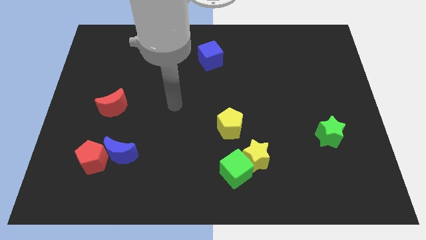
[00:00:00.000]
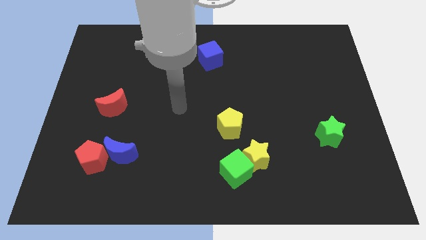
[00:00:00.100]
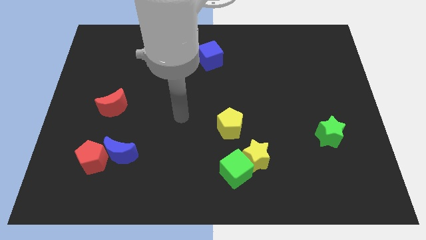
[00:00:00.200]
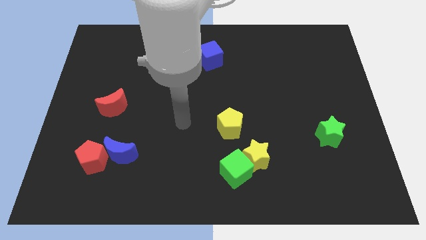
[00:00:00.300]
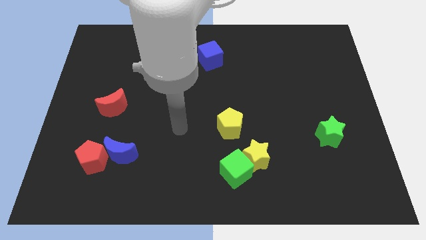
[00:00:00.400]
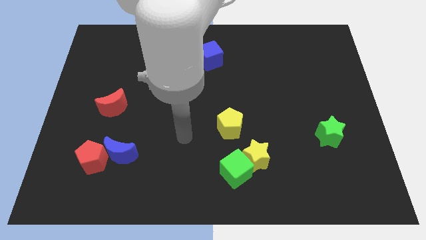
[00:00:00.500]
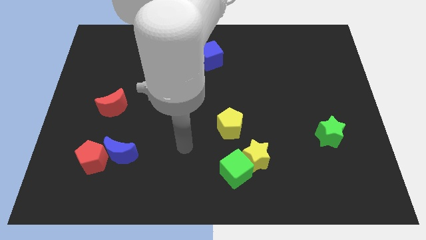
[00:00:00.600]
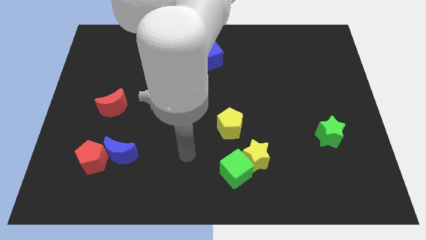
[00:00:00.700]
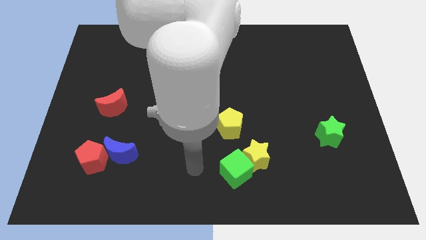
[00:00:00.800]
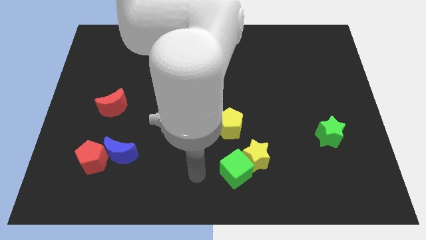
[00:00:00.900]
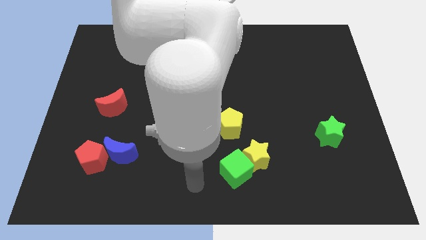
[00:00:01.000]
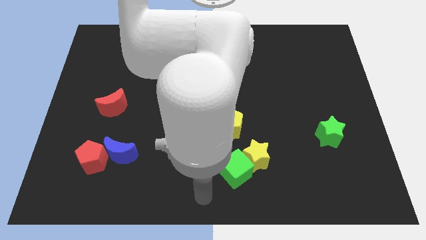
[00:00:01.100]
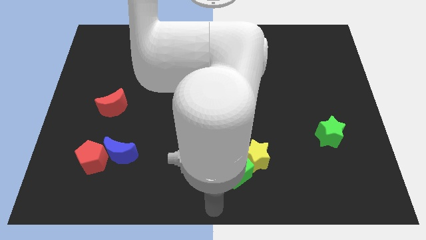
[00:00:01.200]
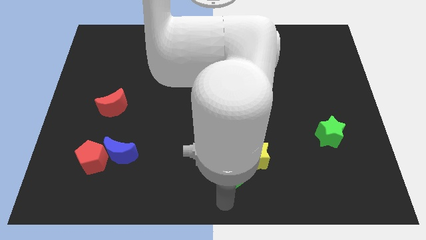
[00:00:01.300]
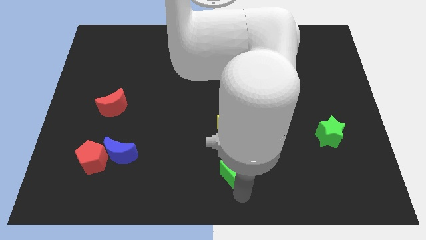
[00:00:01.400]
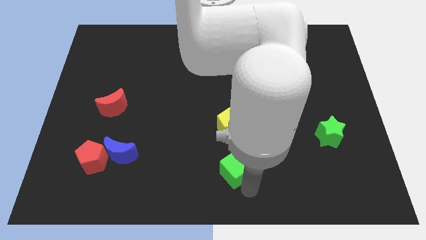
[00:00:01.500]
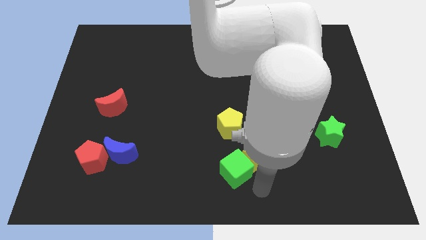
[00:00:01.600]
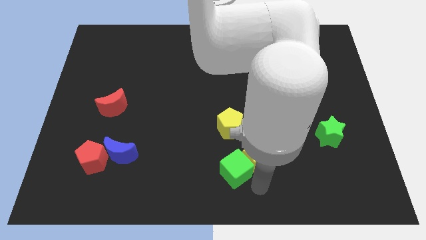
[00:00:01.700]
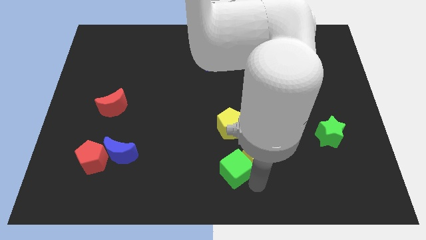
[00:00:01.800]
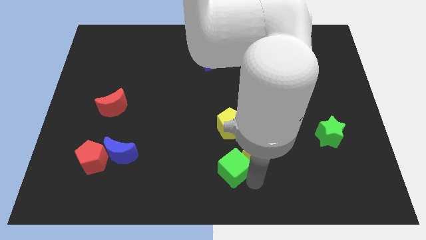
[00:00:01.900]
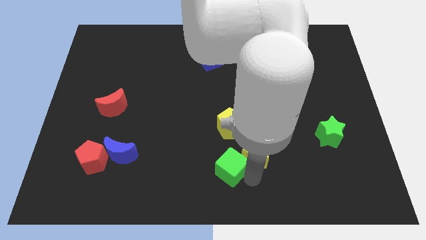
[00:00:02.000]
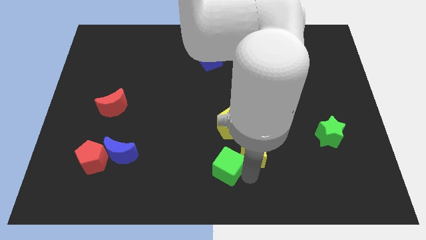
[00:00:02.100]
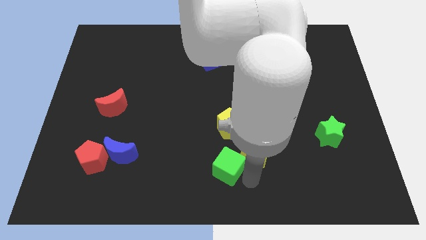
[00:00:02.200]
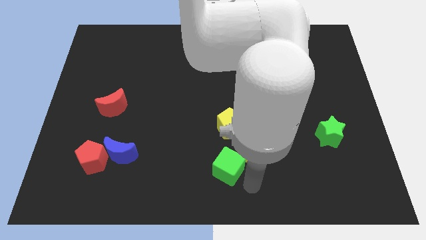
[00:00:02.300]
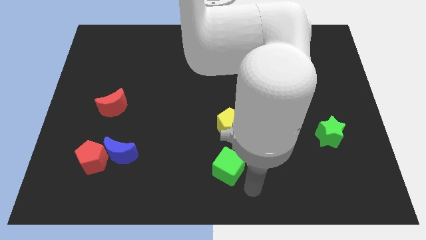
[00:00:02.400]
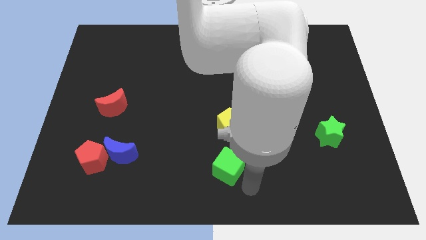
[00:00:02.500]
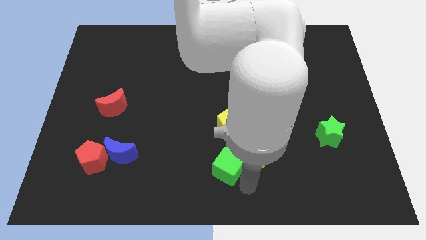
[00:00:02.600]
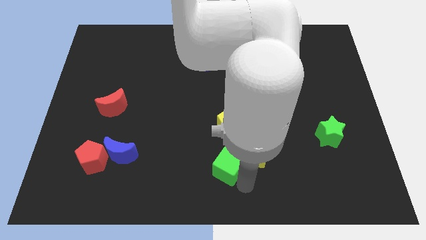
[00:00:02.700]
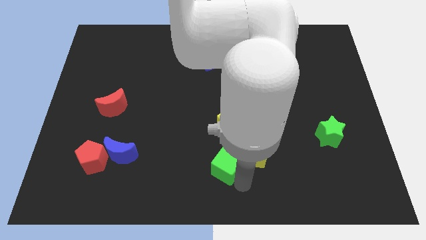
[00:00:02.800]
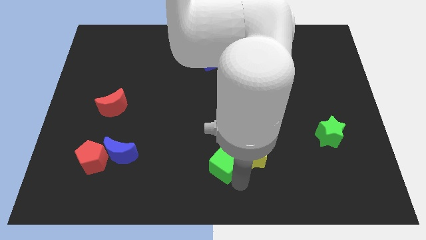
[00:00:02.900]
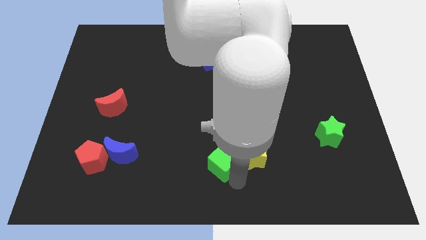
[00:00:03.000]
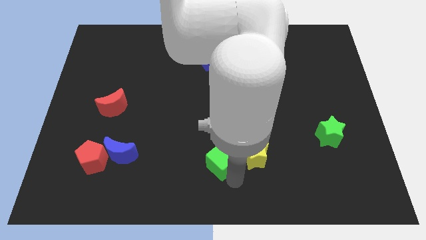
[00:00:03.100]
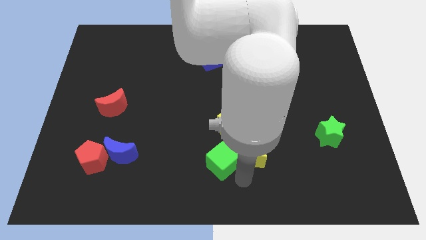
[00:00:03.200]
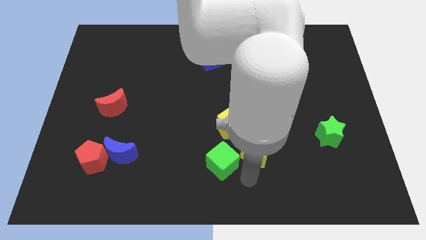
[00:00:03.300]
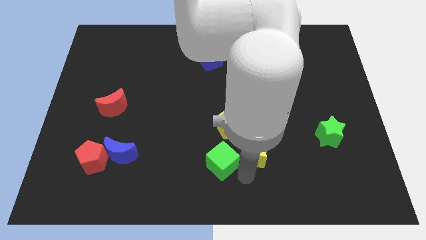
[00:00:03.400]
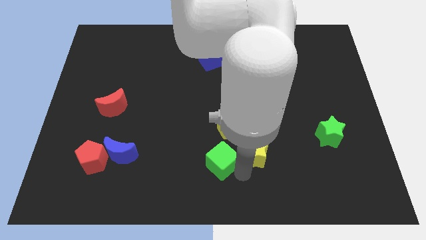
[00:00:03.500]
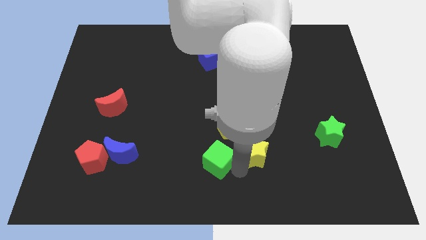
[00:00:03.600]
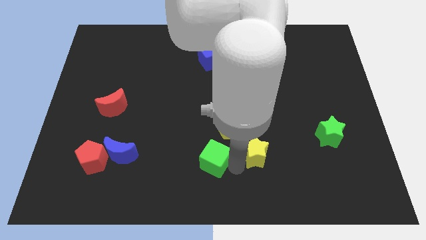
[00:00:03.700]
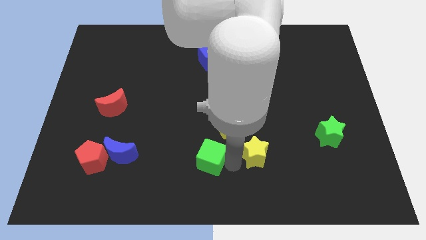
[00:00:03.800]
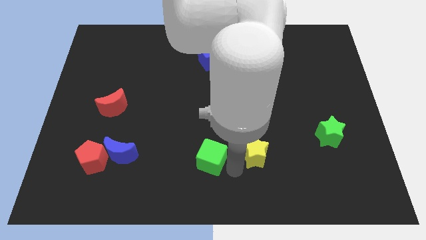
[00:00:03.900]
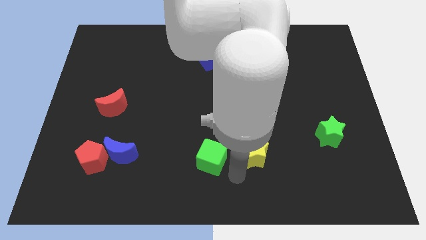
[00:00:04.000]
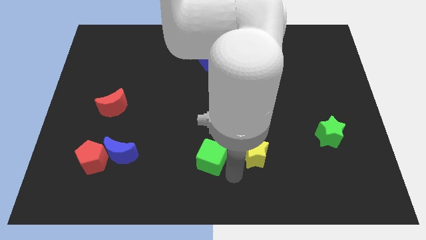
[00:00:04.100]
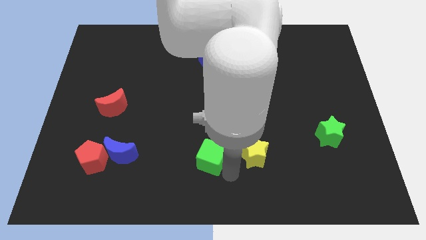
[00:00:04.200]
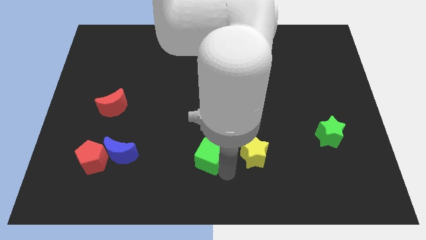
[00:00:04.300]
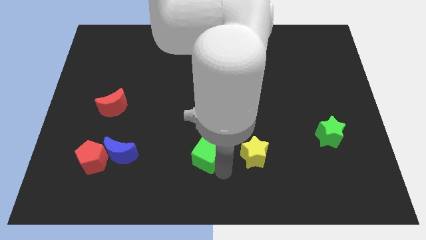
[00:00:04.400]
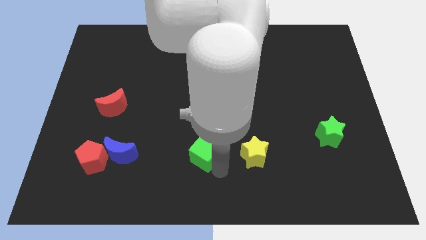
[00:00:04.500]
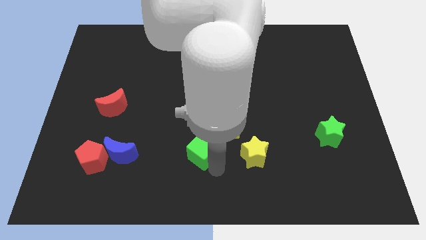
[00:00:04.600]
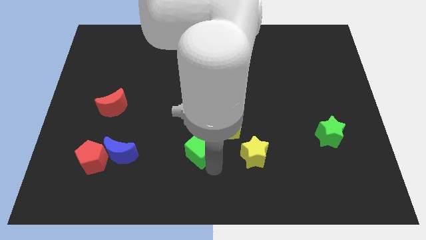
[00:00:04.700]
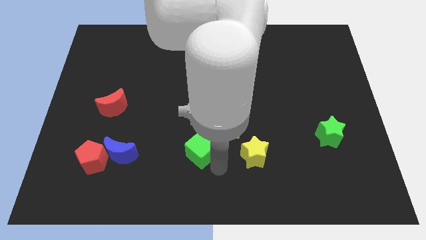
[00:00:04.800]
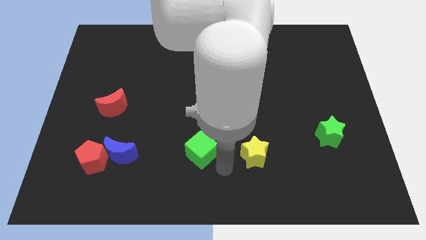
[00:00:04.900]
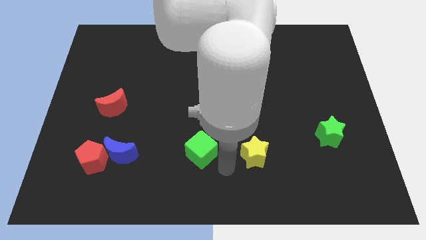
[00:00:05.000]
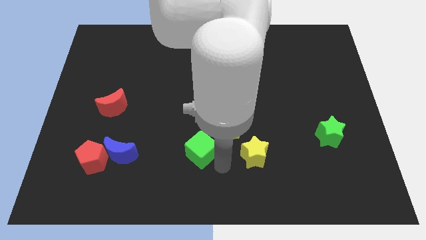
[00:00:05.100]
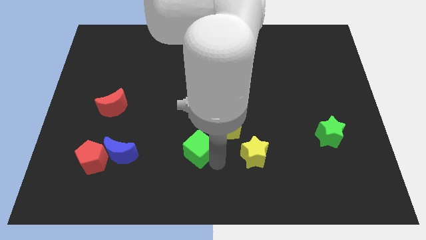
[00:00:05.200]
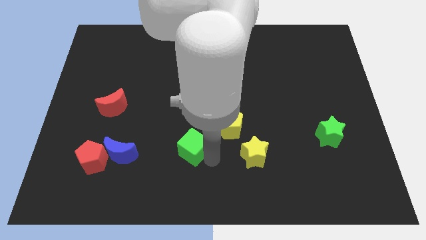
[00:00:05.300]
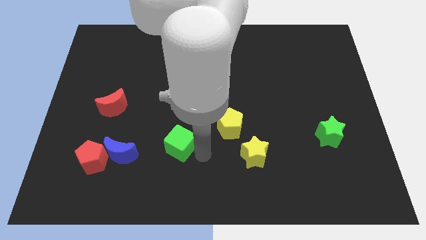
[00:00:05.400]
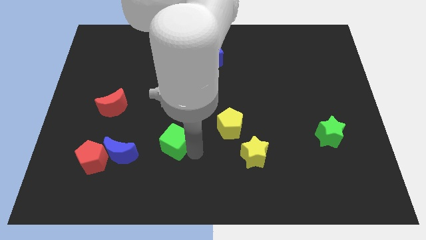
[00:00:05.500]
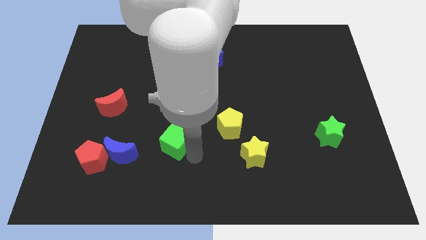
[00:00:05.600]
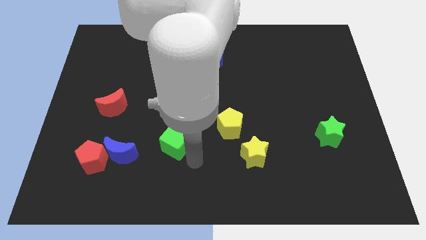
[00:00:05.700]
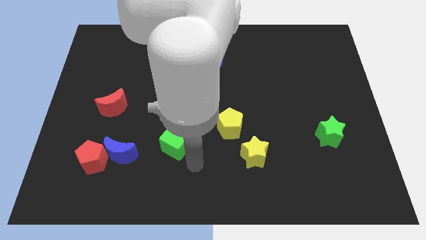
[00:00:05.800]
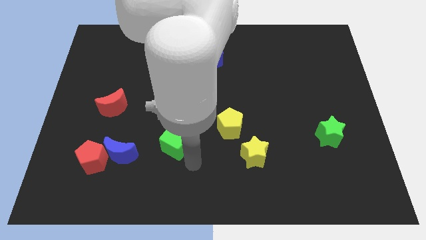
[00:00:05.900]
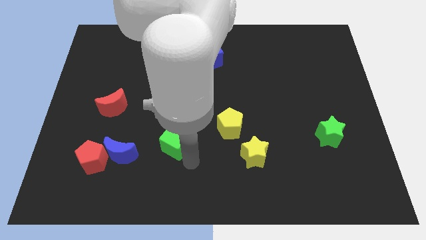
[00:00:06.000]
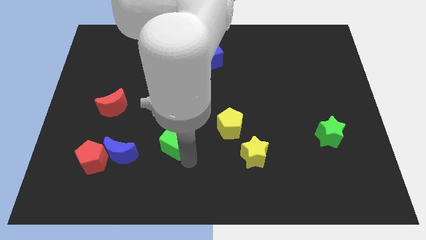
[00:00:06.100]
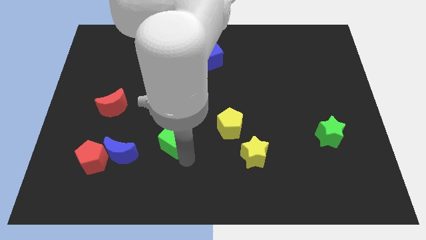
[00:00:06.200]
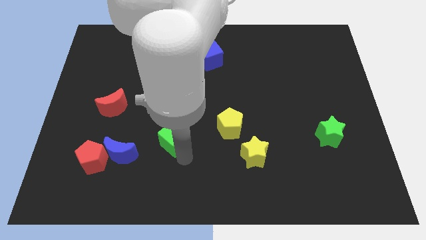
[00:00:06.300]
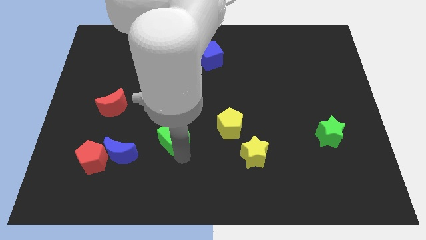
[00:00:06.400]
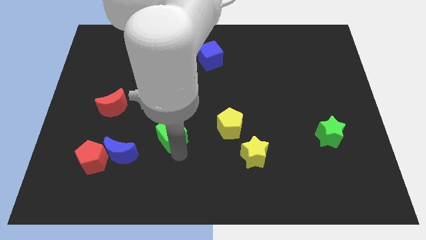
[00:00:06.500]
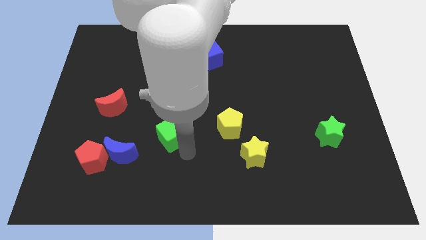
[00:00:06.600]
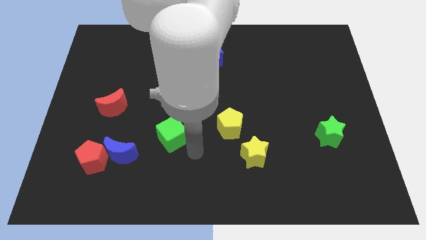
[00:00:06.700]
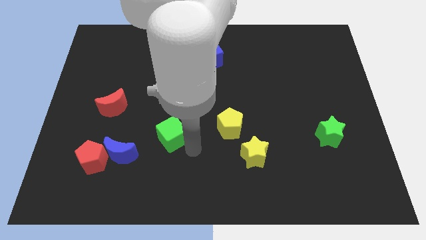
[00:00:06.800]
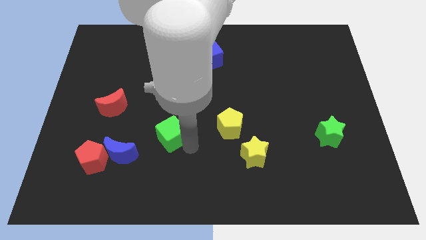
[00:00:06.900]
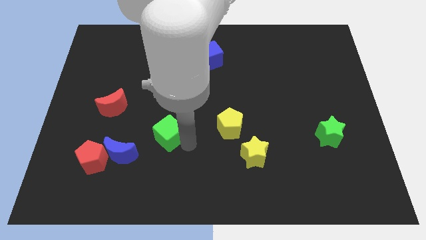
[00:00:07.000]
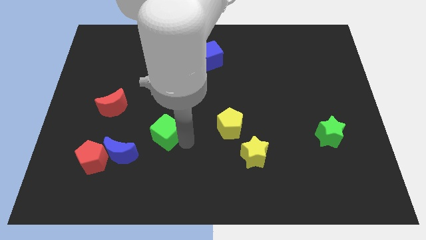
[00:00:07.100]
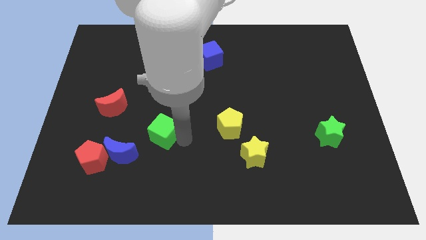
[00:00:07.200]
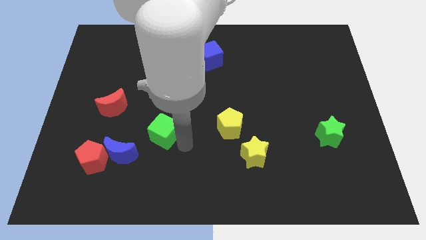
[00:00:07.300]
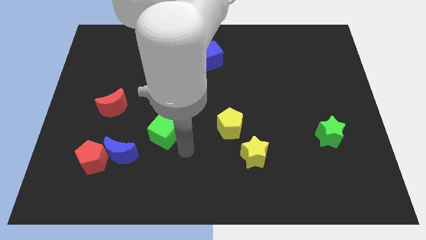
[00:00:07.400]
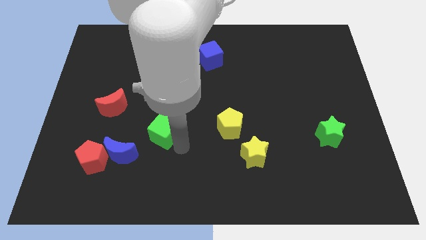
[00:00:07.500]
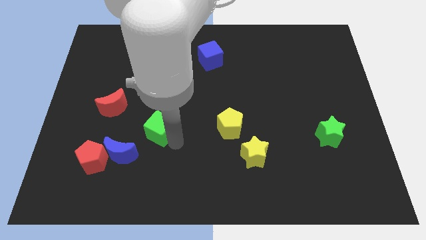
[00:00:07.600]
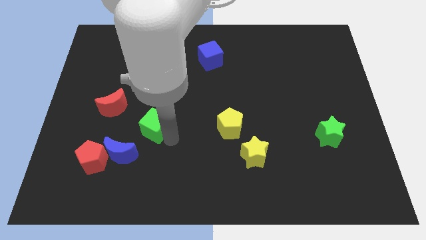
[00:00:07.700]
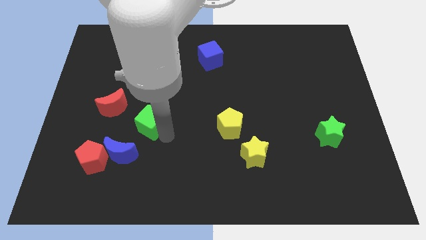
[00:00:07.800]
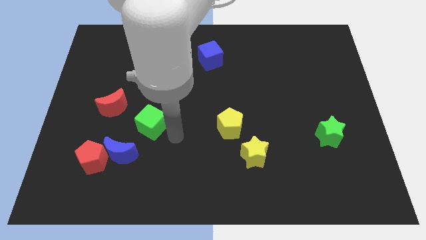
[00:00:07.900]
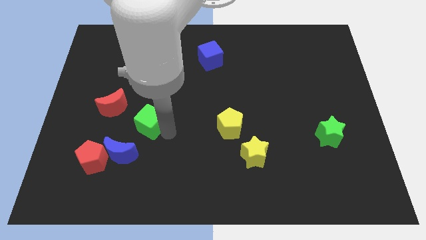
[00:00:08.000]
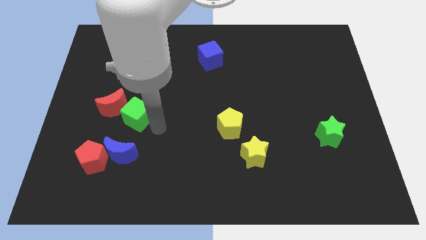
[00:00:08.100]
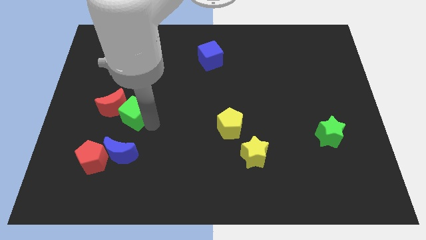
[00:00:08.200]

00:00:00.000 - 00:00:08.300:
move the green cube to the red moon
